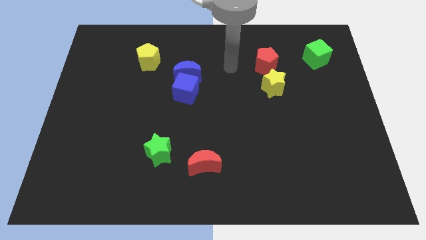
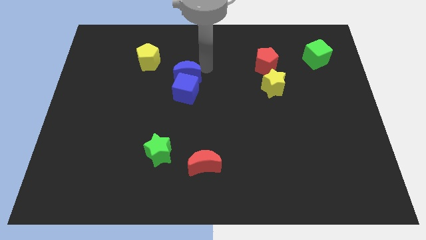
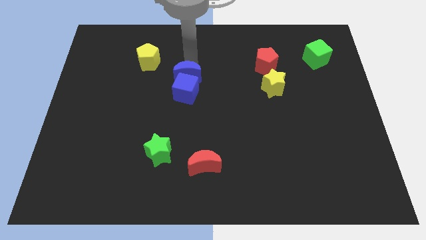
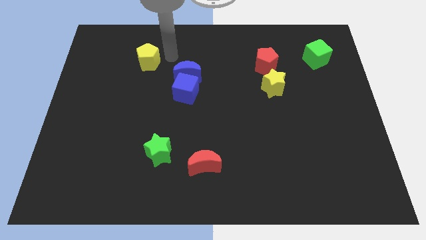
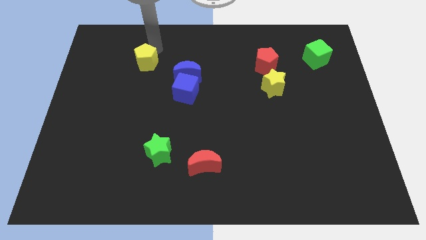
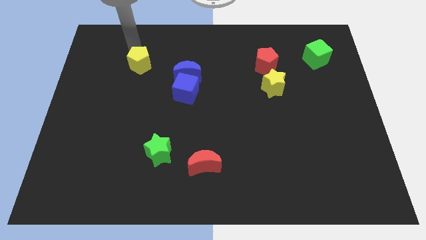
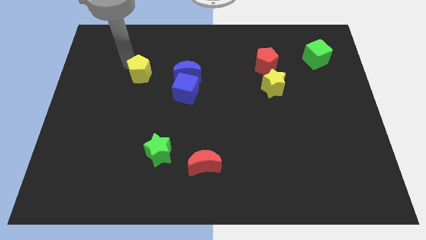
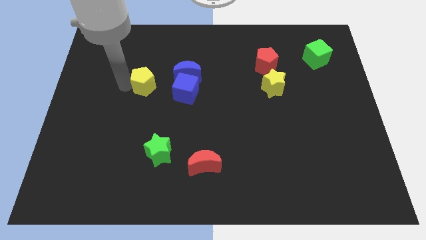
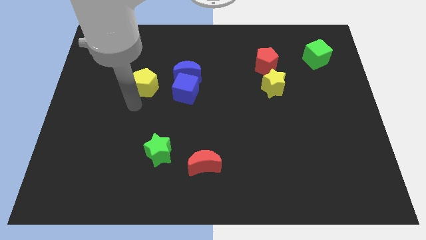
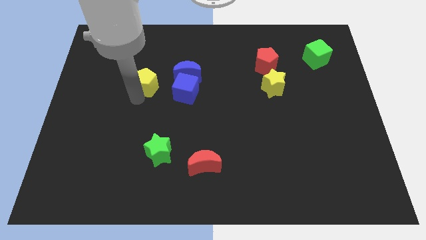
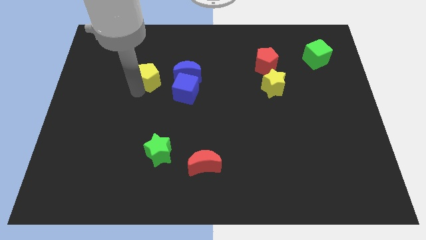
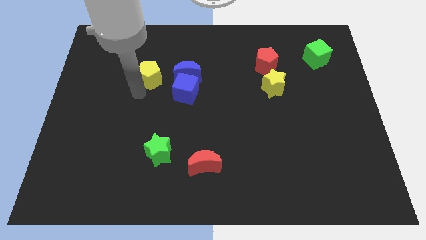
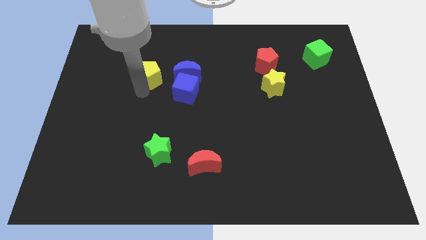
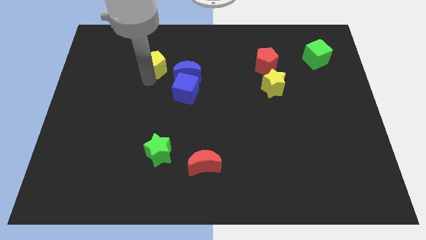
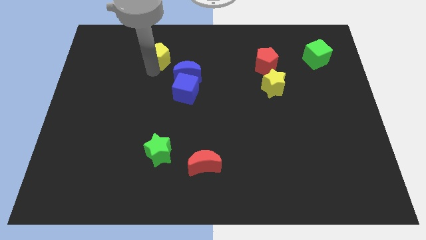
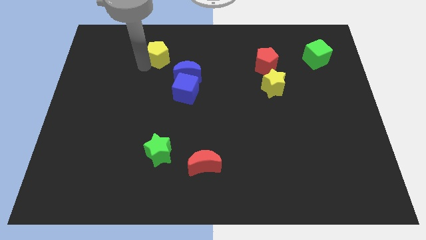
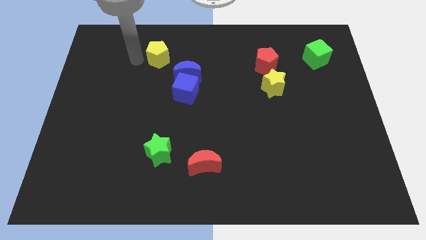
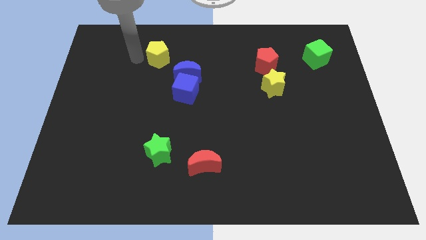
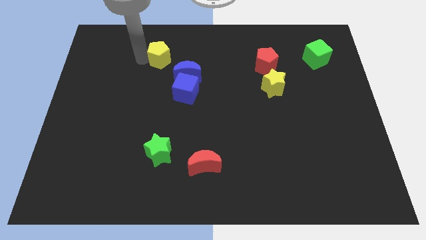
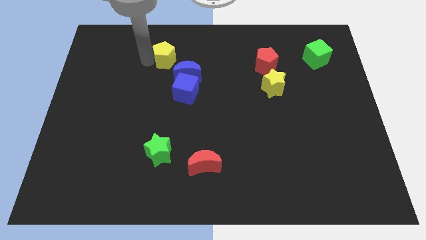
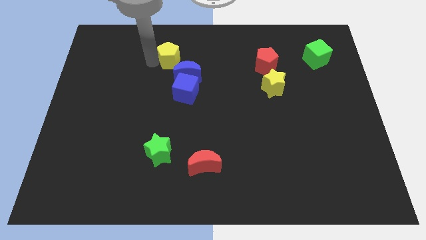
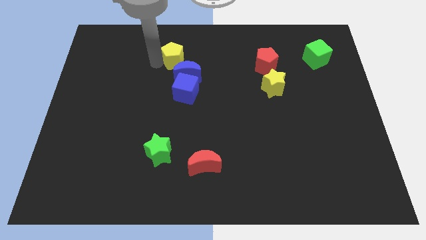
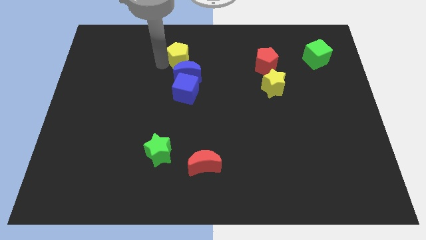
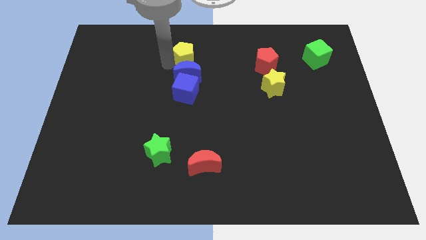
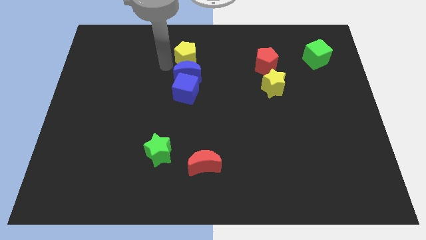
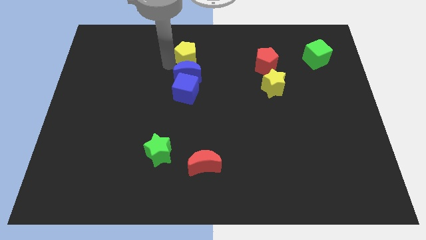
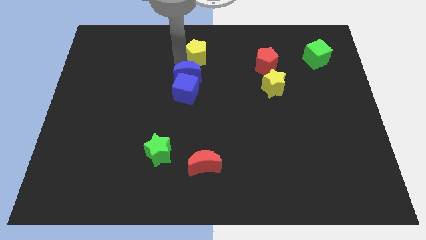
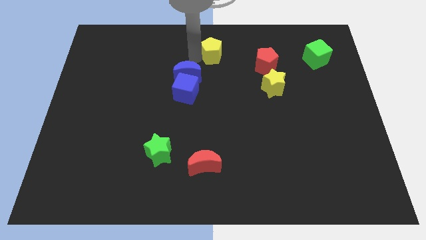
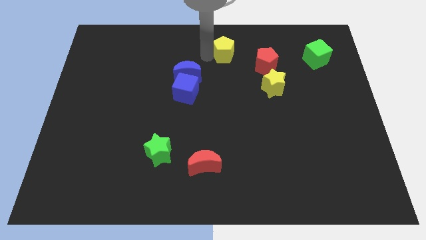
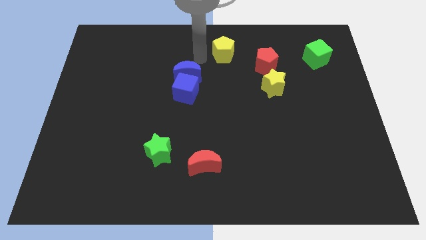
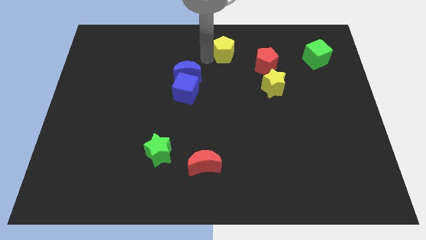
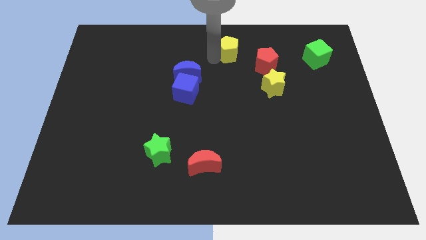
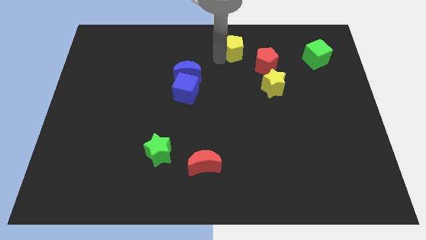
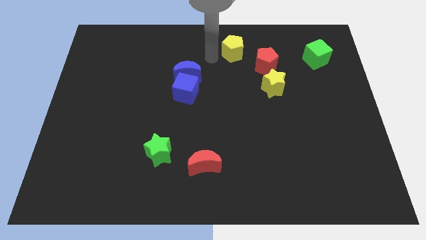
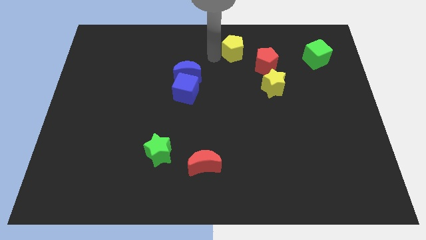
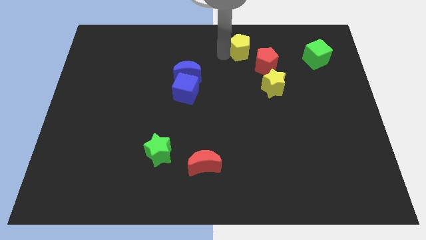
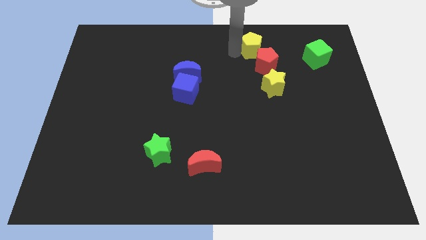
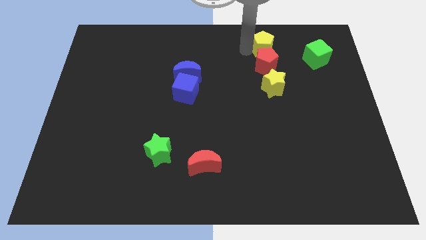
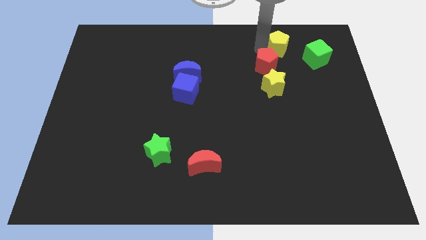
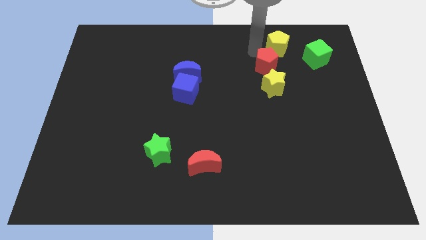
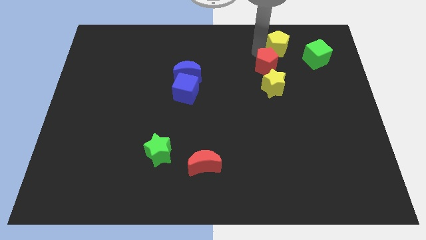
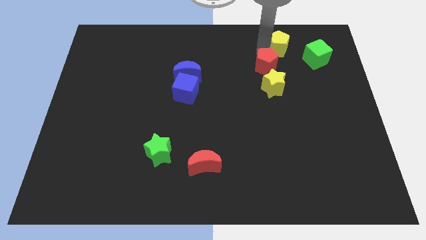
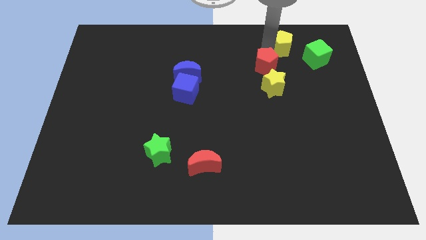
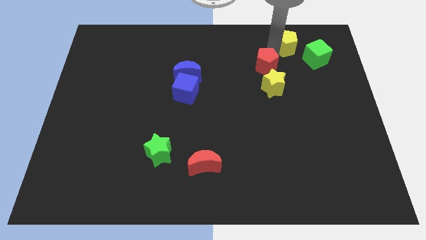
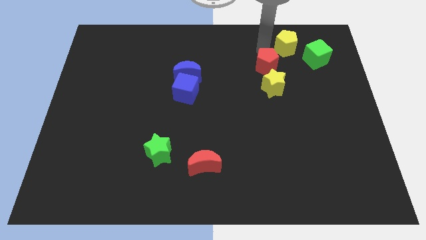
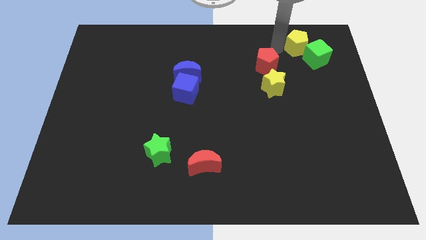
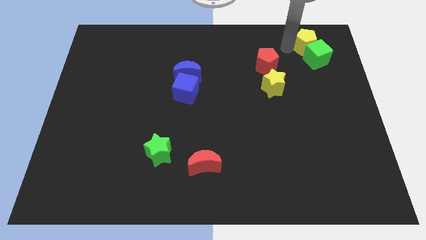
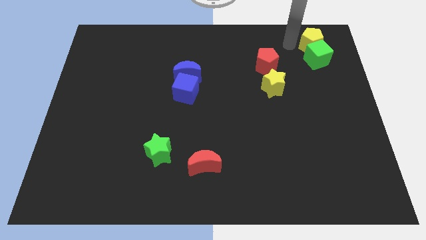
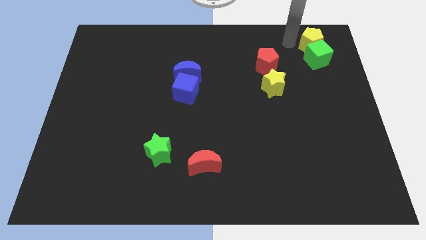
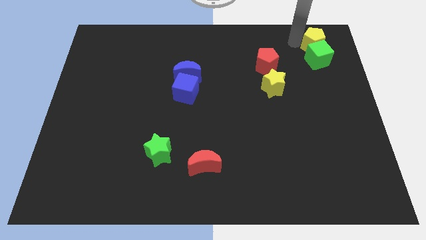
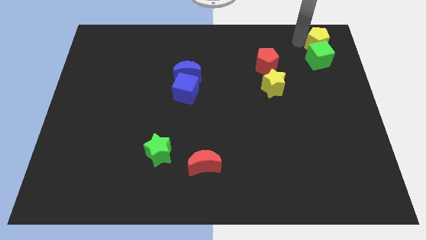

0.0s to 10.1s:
push the yellow pentagon to the upper right corner

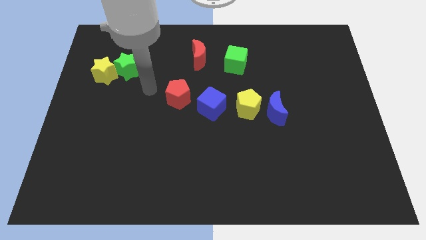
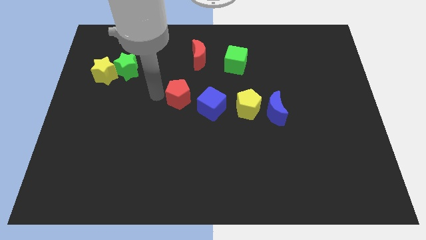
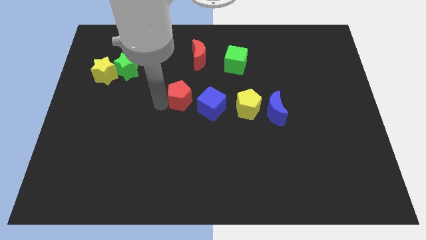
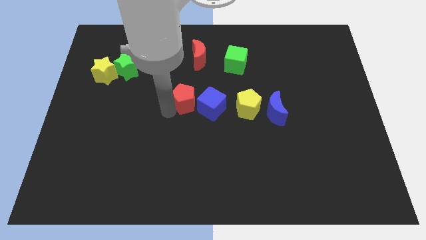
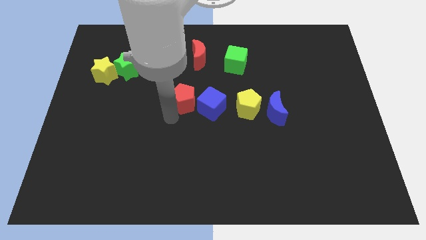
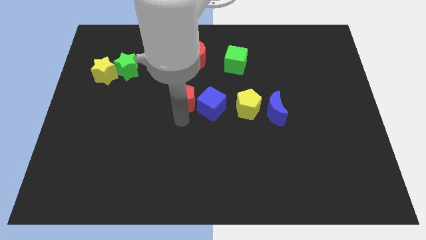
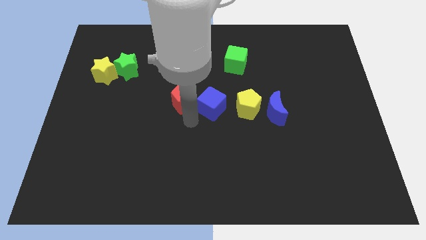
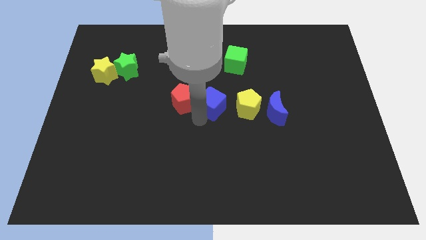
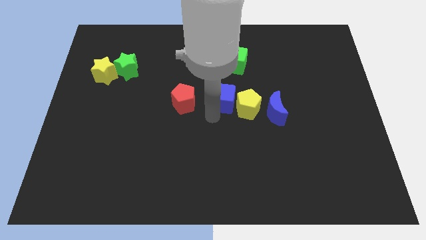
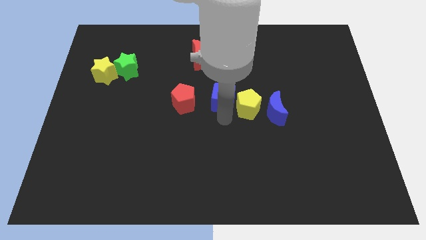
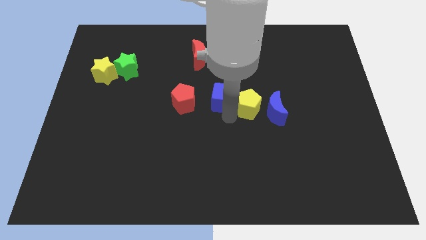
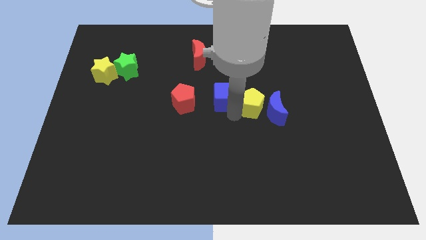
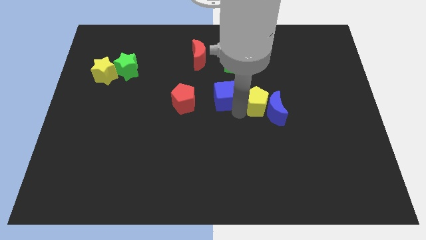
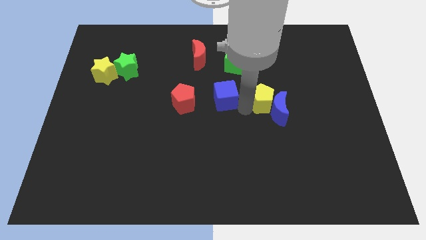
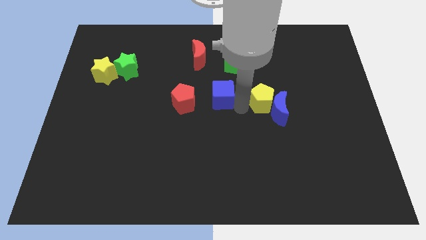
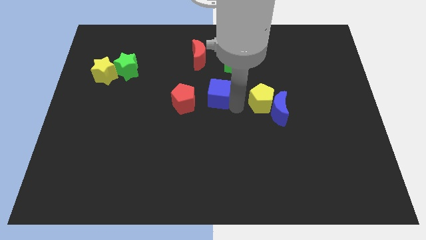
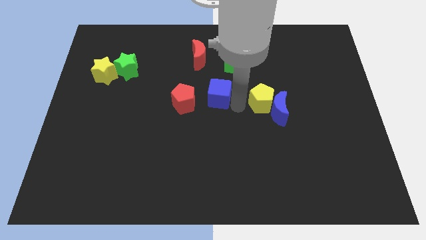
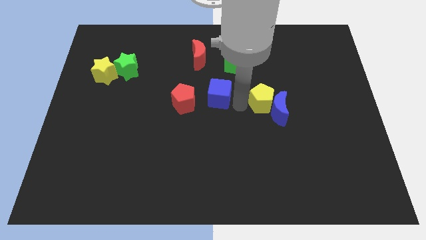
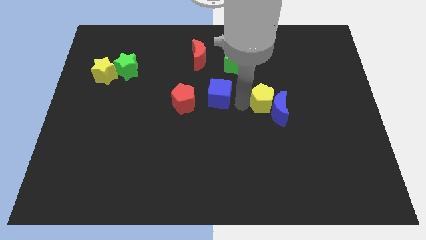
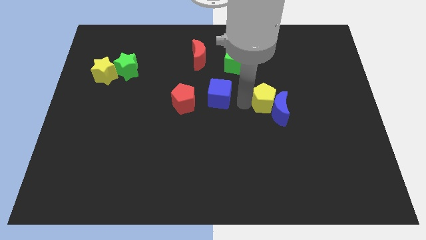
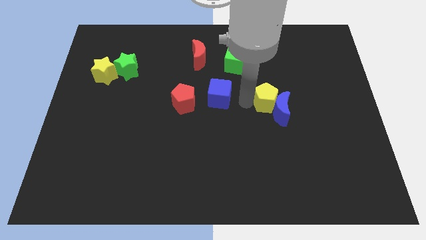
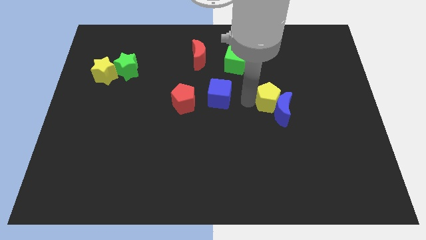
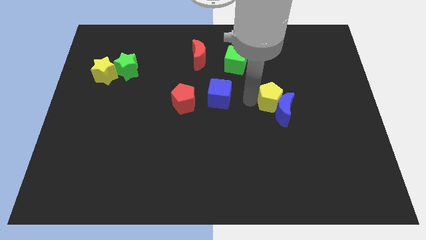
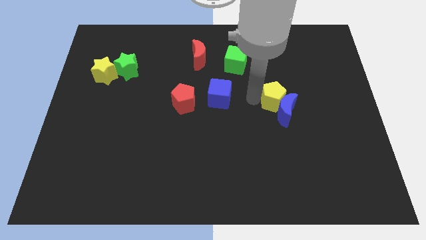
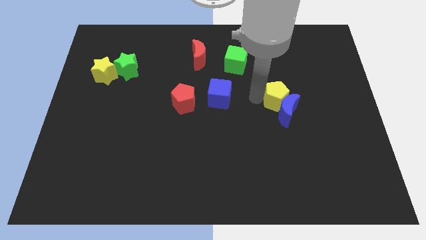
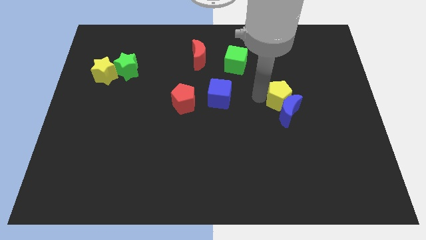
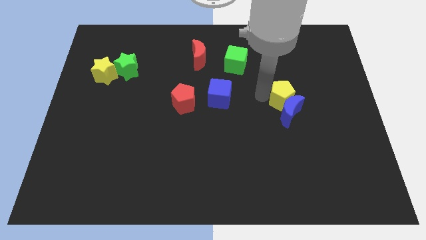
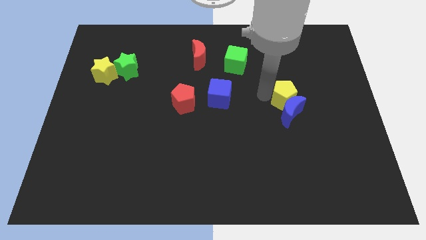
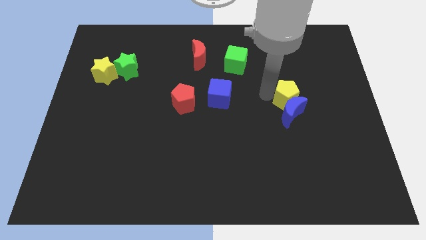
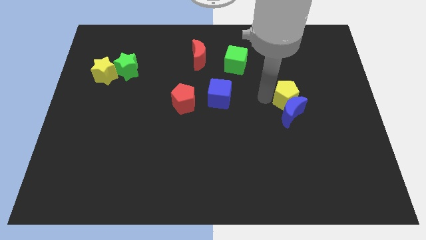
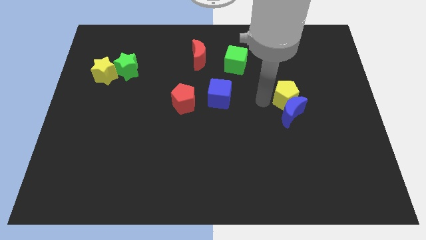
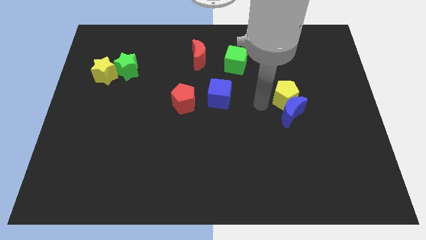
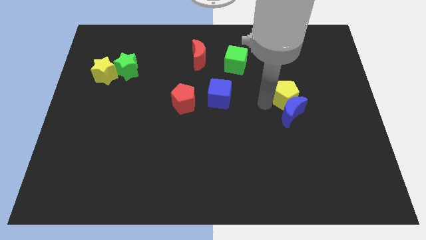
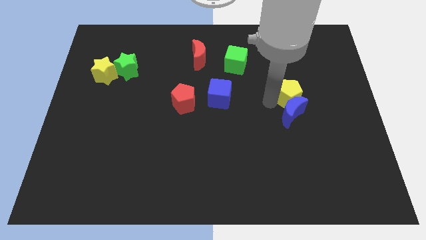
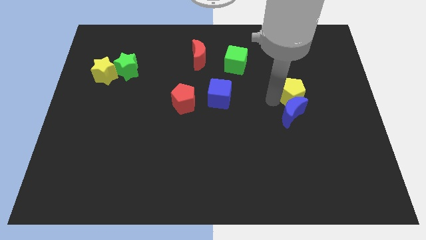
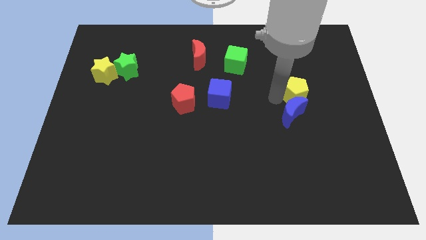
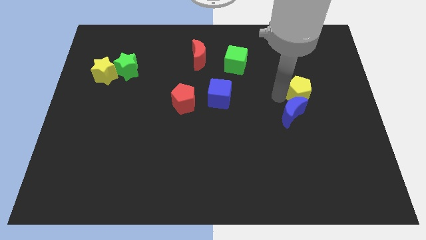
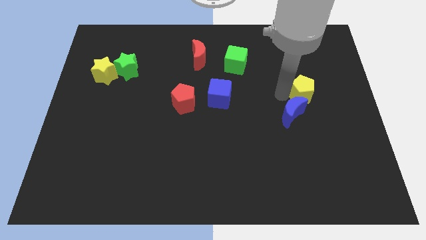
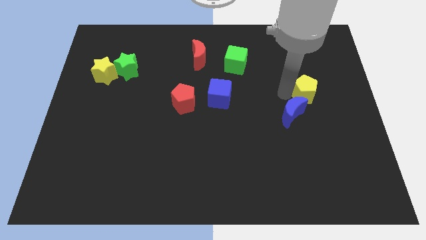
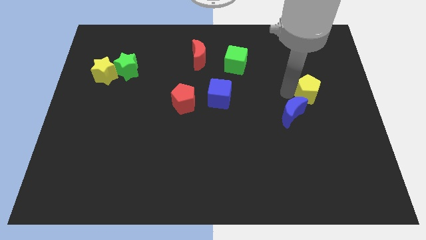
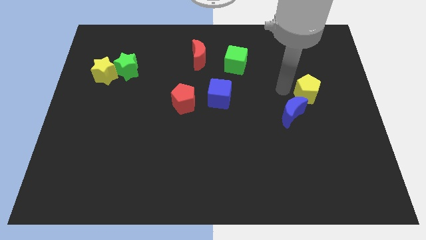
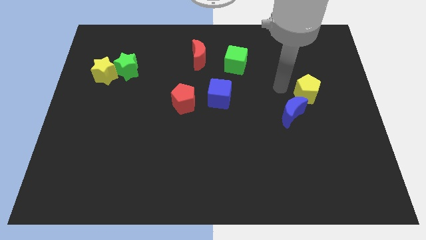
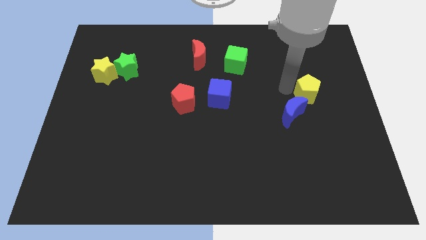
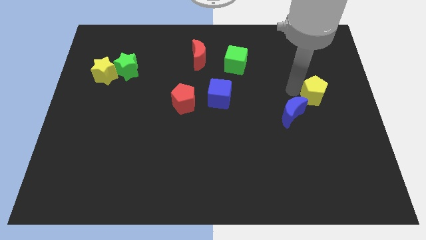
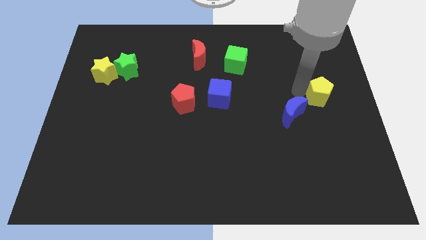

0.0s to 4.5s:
move the yellow pentagon to the center right
